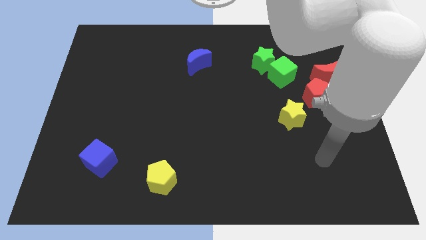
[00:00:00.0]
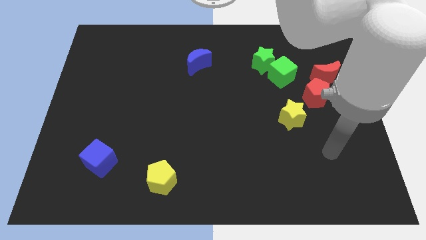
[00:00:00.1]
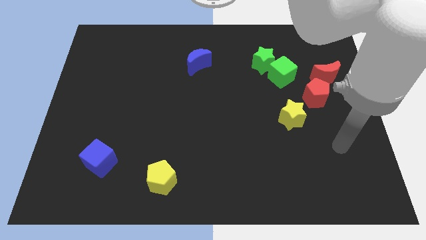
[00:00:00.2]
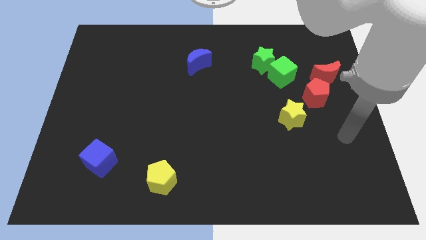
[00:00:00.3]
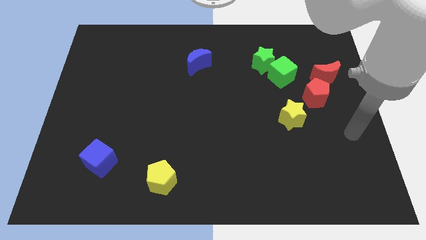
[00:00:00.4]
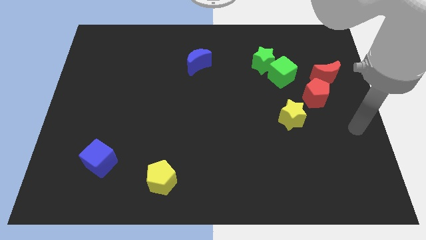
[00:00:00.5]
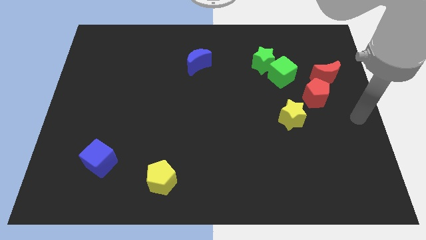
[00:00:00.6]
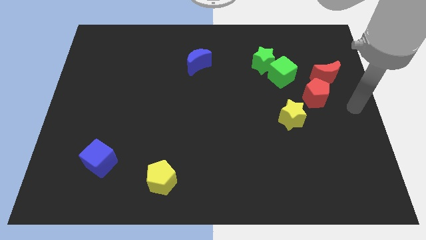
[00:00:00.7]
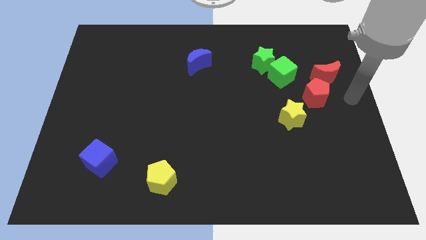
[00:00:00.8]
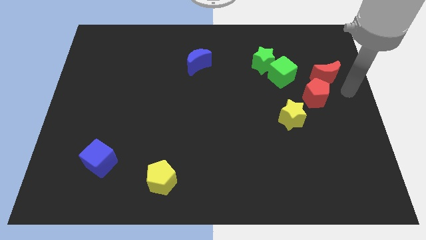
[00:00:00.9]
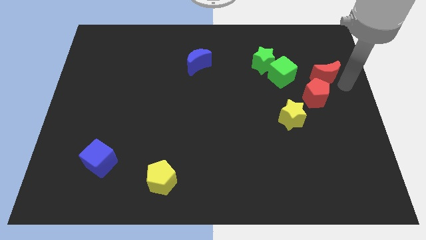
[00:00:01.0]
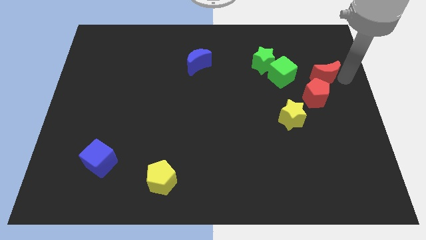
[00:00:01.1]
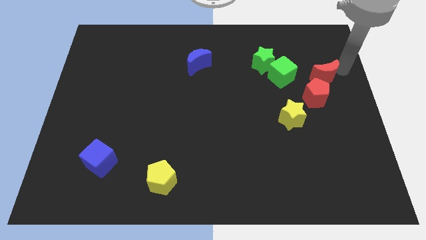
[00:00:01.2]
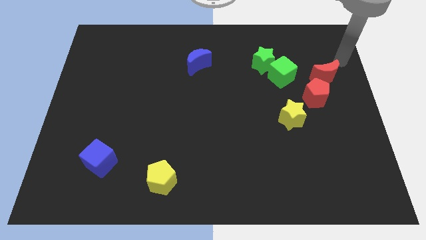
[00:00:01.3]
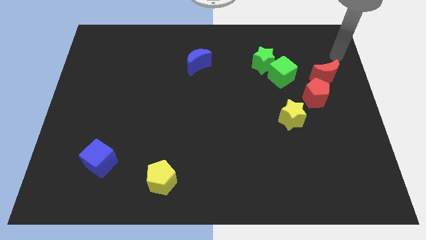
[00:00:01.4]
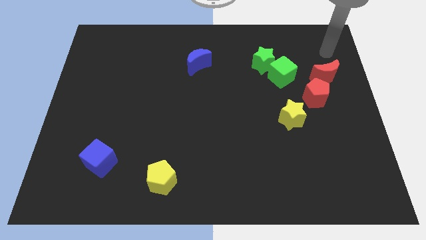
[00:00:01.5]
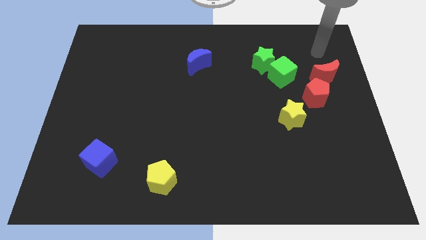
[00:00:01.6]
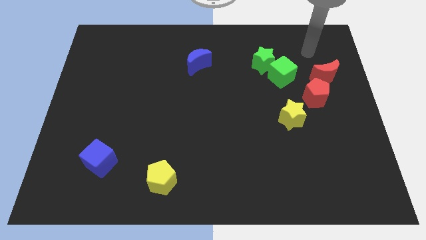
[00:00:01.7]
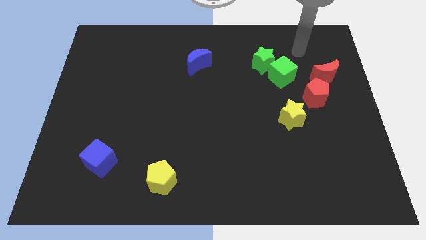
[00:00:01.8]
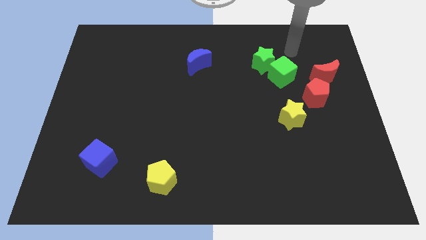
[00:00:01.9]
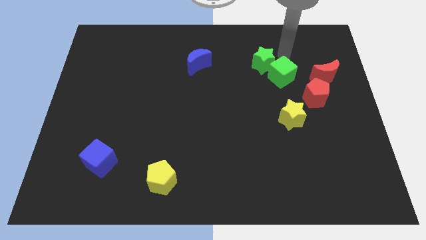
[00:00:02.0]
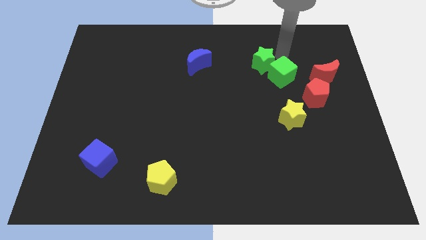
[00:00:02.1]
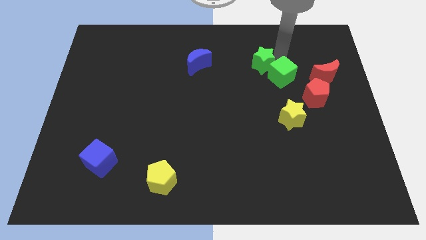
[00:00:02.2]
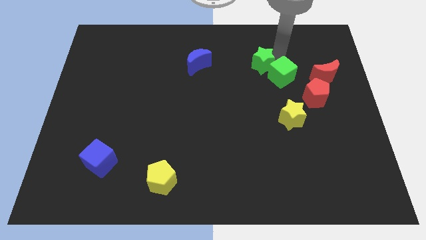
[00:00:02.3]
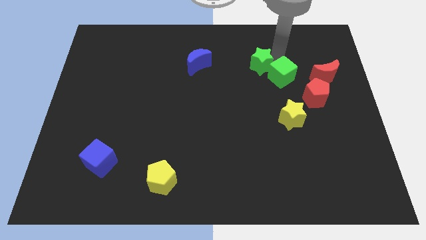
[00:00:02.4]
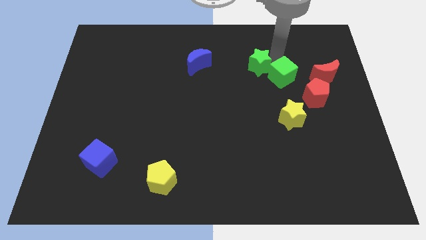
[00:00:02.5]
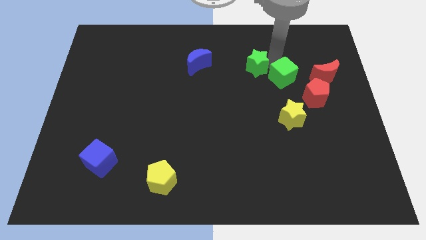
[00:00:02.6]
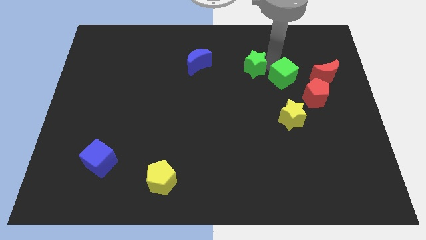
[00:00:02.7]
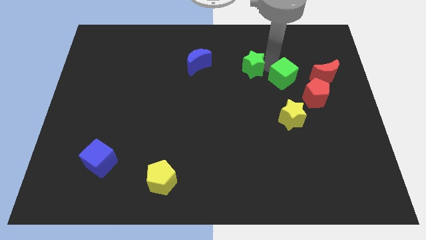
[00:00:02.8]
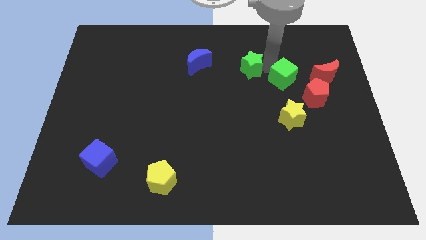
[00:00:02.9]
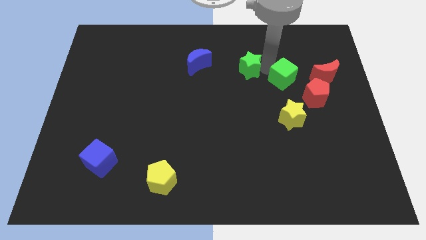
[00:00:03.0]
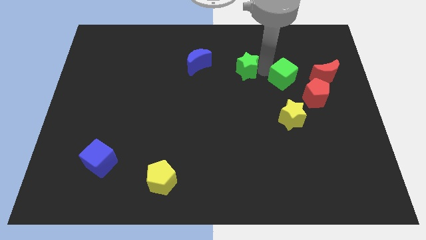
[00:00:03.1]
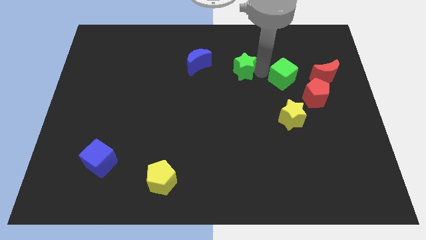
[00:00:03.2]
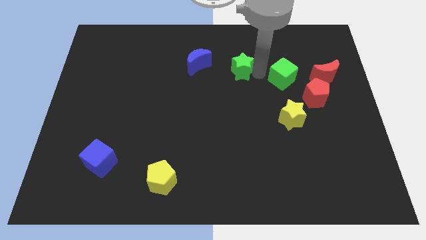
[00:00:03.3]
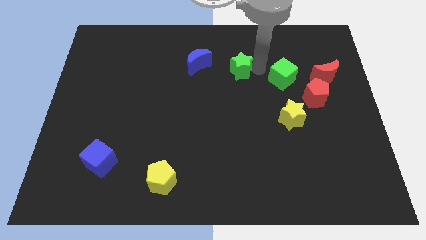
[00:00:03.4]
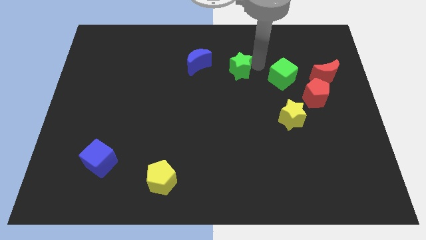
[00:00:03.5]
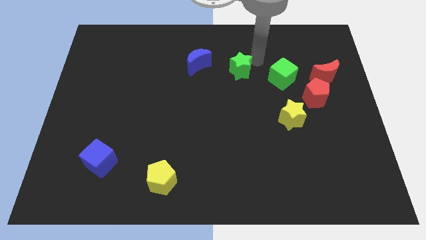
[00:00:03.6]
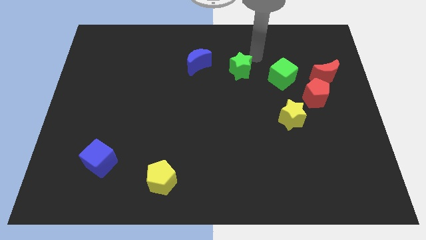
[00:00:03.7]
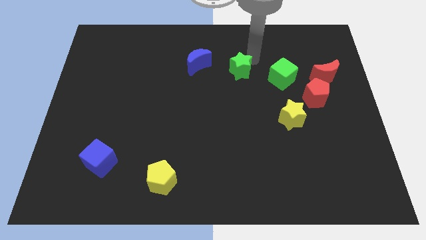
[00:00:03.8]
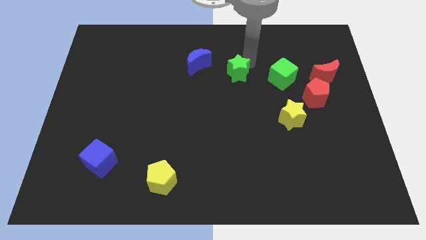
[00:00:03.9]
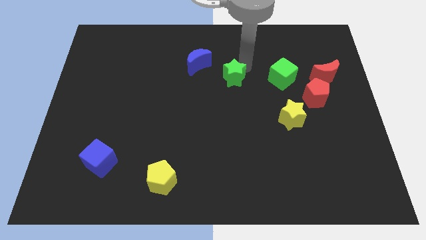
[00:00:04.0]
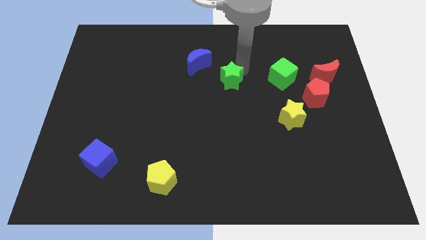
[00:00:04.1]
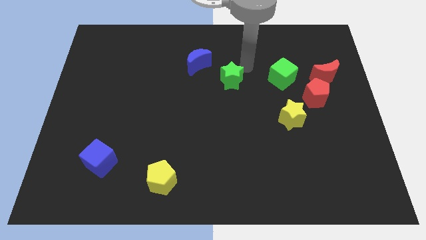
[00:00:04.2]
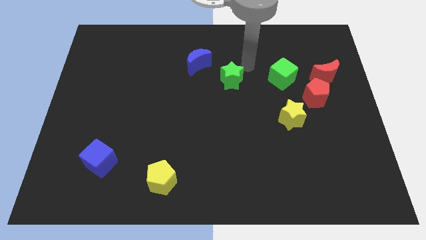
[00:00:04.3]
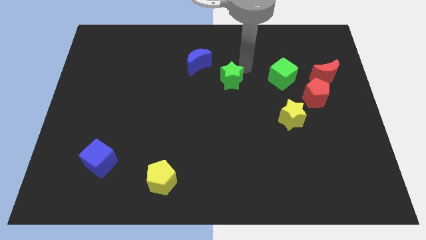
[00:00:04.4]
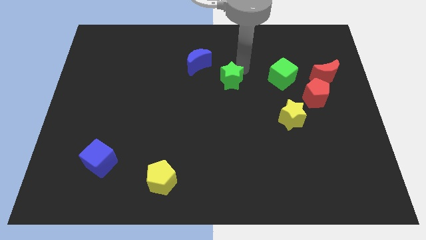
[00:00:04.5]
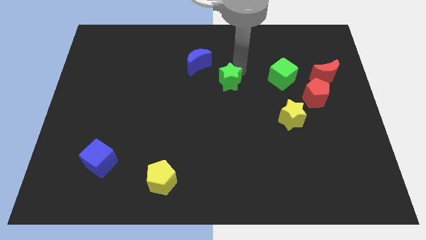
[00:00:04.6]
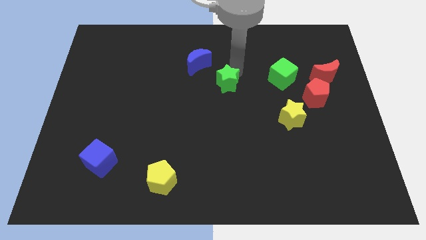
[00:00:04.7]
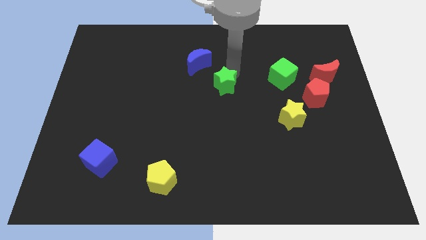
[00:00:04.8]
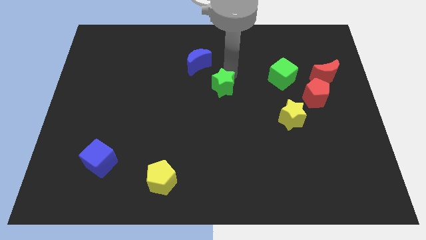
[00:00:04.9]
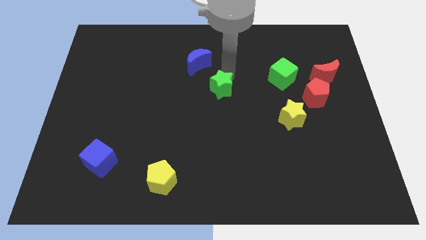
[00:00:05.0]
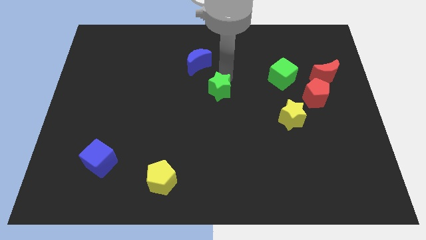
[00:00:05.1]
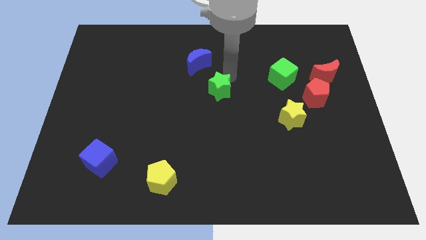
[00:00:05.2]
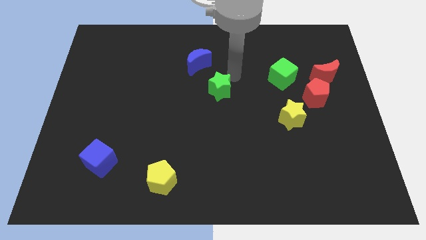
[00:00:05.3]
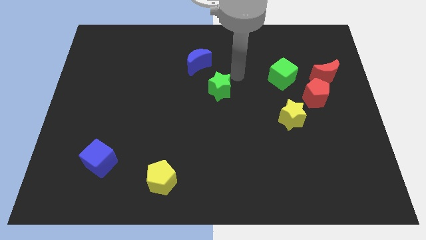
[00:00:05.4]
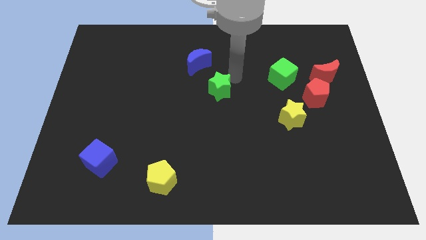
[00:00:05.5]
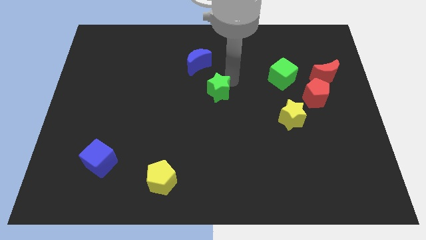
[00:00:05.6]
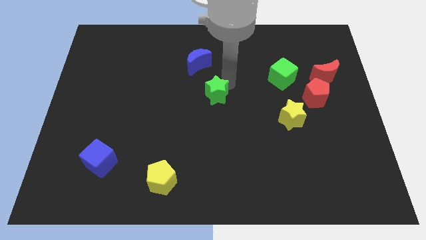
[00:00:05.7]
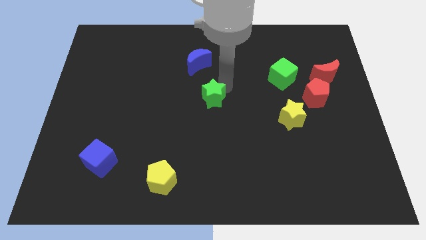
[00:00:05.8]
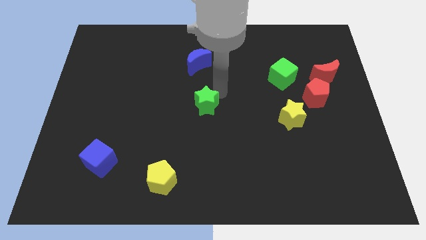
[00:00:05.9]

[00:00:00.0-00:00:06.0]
slide the green star downwards and left diagonally

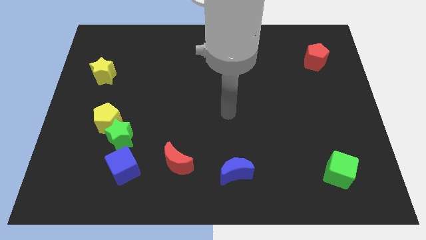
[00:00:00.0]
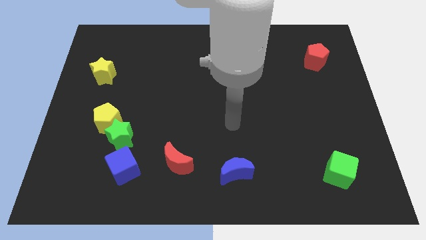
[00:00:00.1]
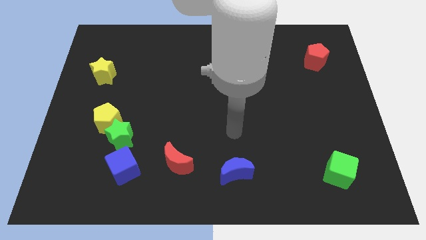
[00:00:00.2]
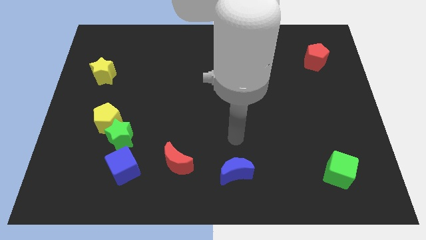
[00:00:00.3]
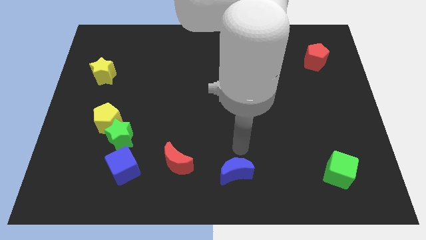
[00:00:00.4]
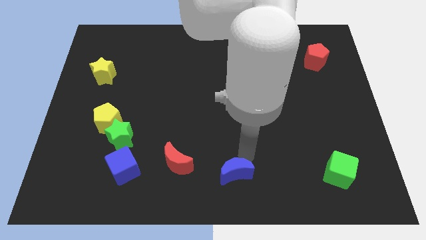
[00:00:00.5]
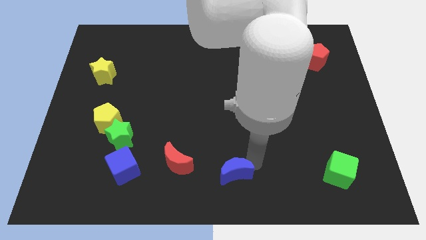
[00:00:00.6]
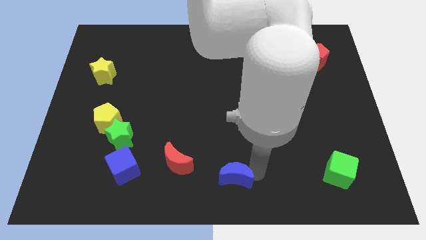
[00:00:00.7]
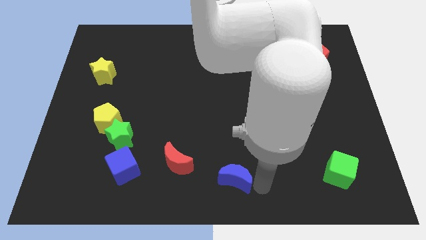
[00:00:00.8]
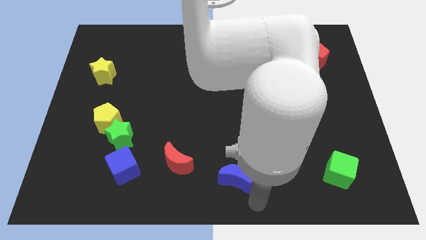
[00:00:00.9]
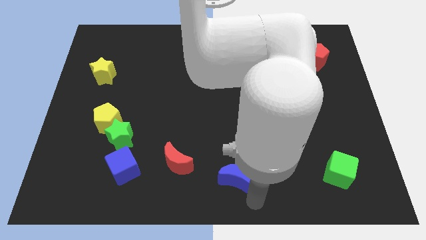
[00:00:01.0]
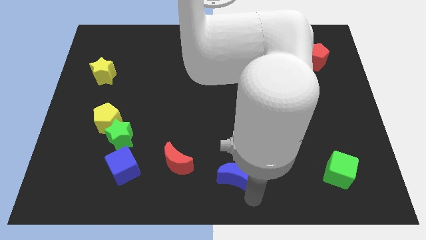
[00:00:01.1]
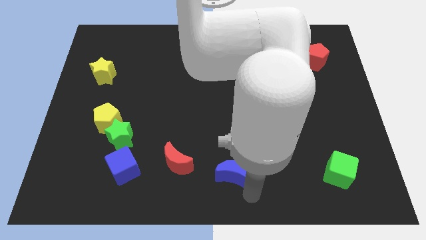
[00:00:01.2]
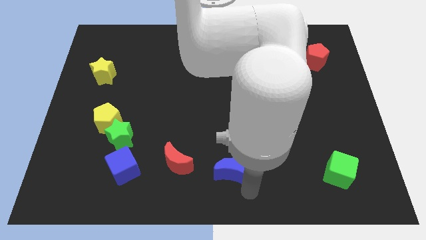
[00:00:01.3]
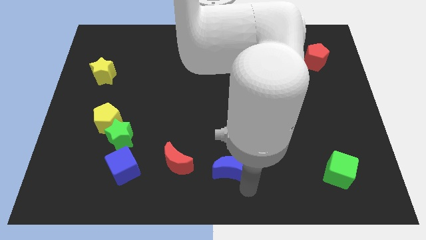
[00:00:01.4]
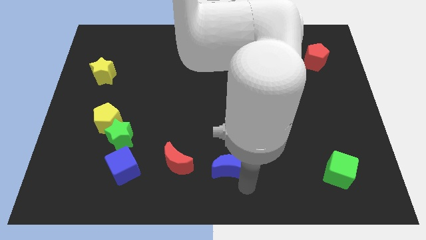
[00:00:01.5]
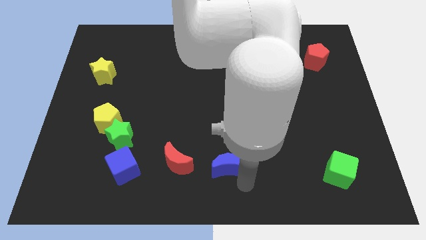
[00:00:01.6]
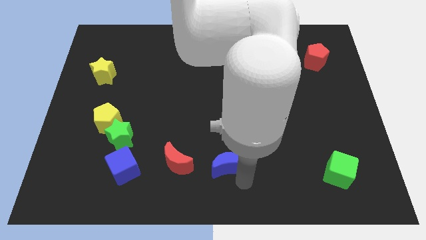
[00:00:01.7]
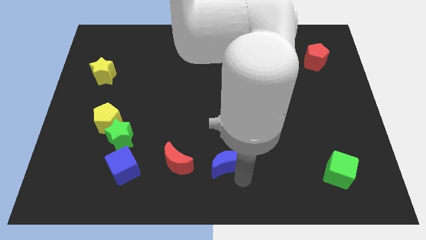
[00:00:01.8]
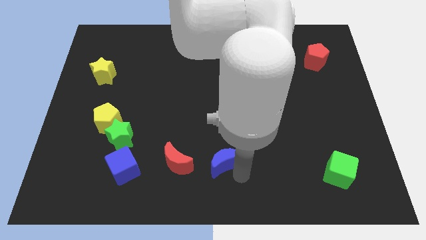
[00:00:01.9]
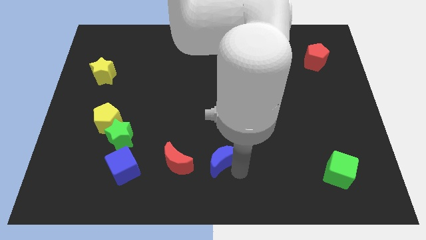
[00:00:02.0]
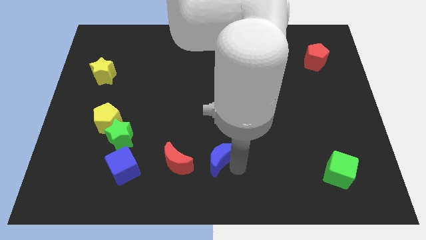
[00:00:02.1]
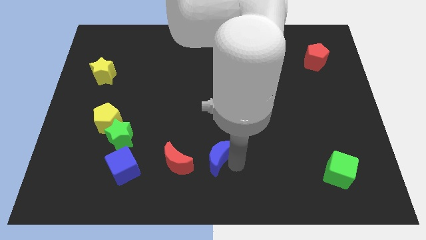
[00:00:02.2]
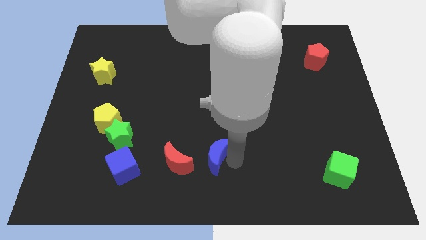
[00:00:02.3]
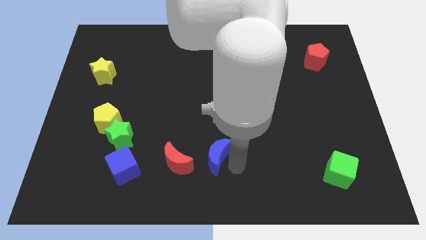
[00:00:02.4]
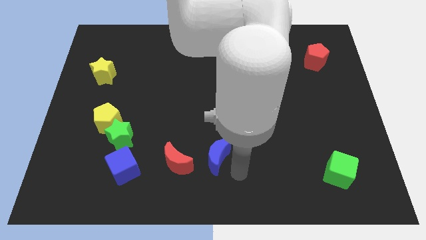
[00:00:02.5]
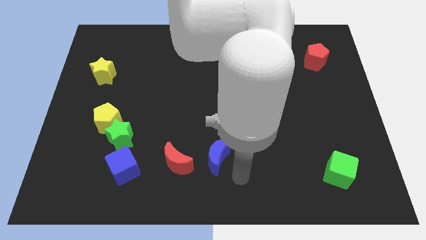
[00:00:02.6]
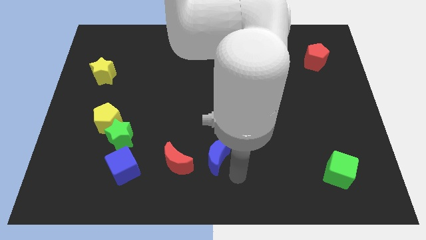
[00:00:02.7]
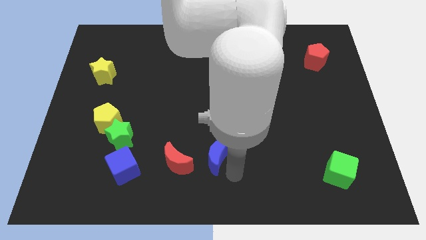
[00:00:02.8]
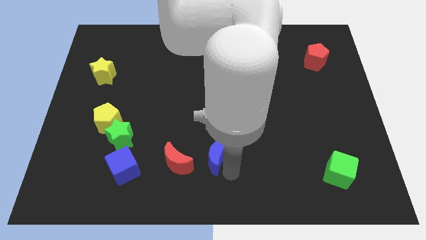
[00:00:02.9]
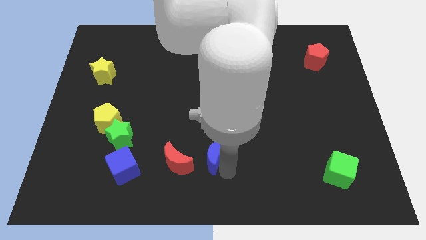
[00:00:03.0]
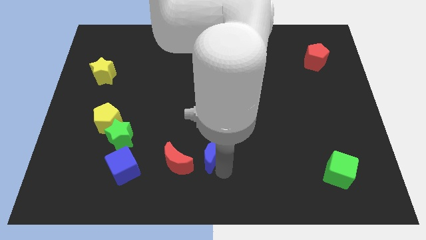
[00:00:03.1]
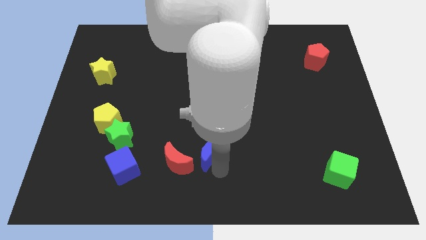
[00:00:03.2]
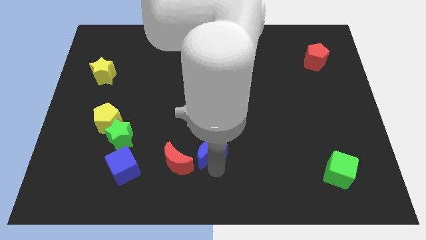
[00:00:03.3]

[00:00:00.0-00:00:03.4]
slightly push the blue moon diagonally upwards and left
